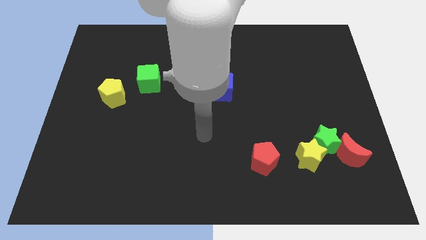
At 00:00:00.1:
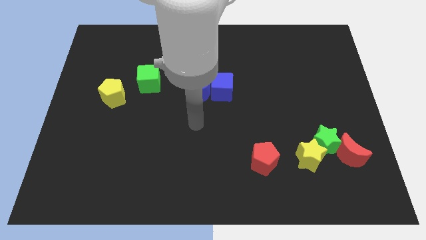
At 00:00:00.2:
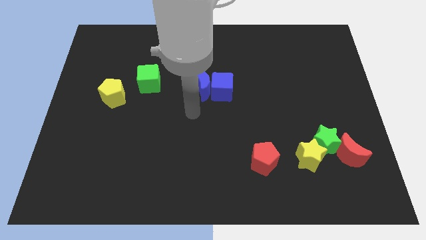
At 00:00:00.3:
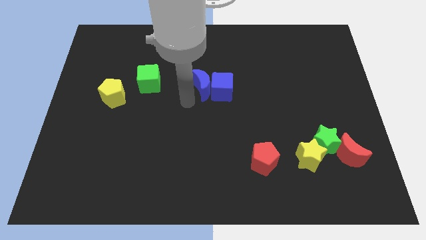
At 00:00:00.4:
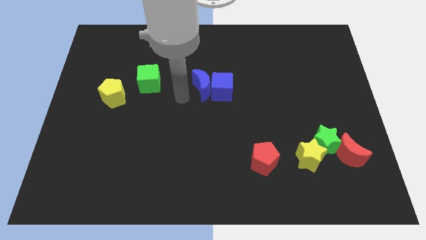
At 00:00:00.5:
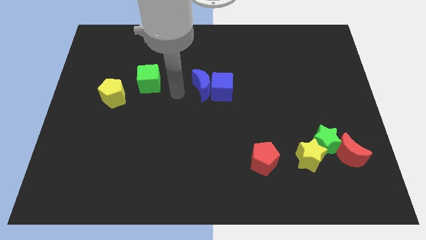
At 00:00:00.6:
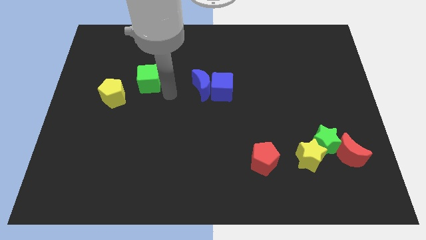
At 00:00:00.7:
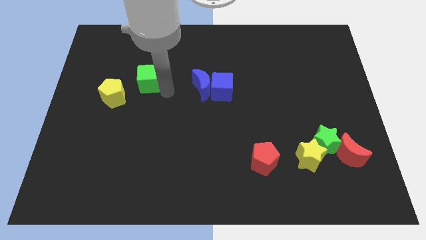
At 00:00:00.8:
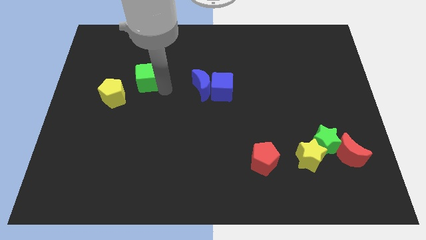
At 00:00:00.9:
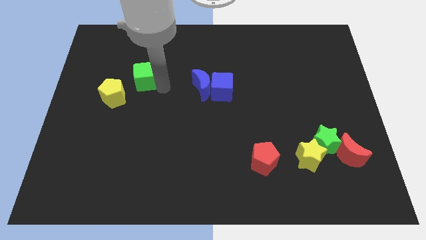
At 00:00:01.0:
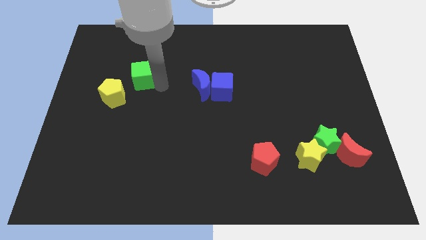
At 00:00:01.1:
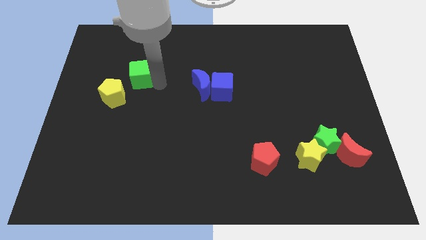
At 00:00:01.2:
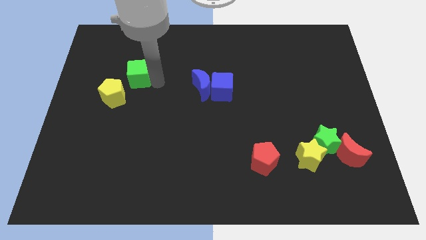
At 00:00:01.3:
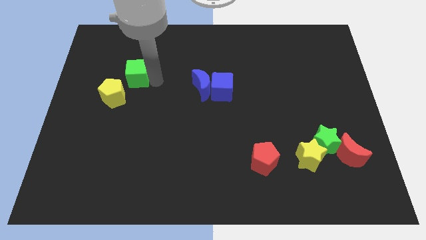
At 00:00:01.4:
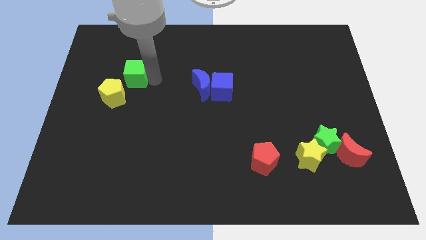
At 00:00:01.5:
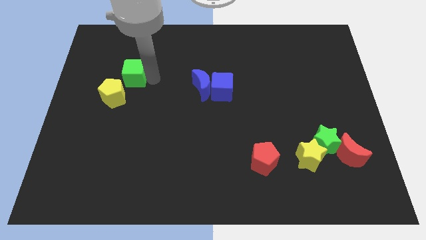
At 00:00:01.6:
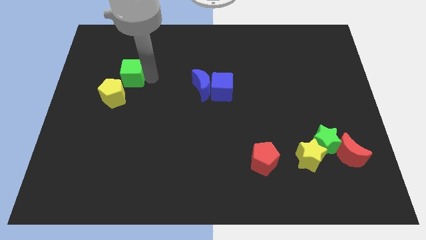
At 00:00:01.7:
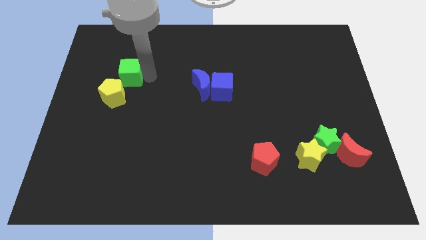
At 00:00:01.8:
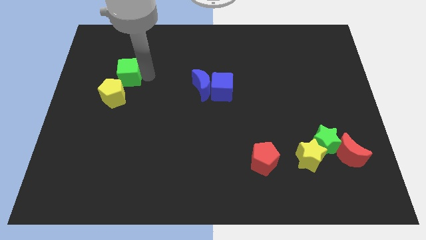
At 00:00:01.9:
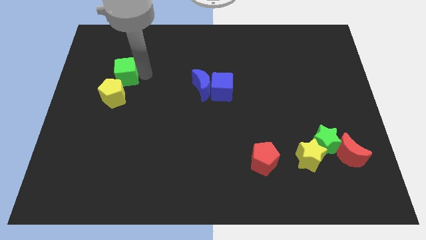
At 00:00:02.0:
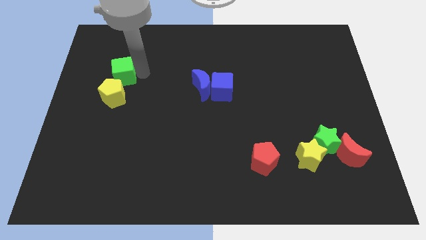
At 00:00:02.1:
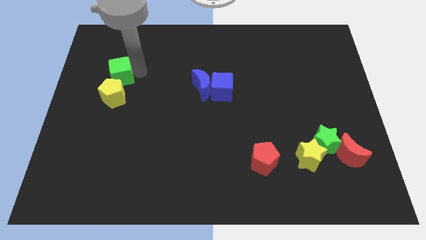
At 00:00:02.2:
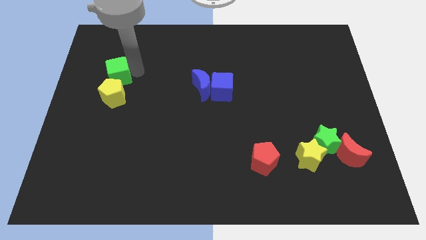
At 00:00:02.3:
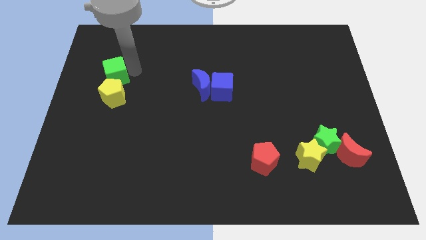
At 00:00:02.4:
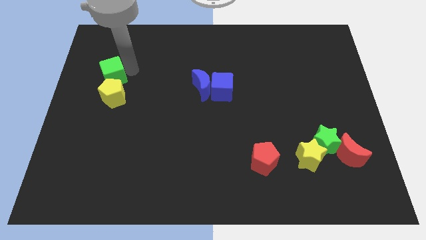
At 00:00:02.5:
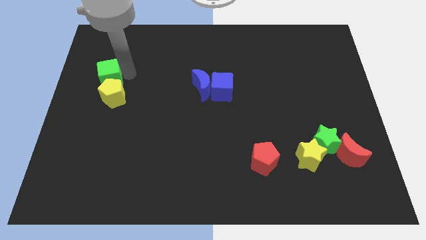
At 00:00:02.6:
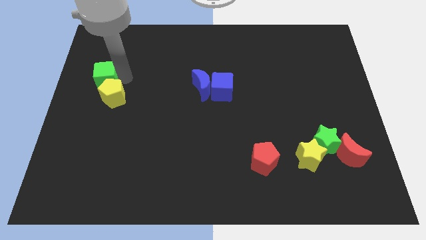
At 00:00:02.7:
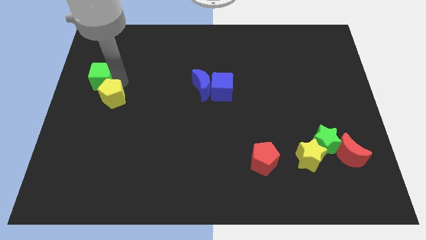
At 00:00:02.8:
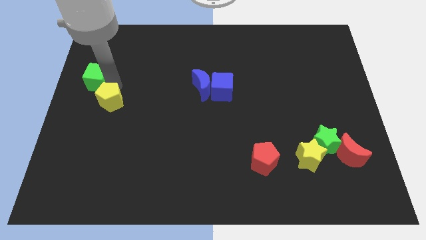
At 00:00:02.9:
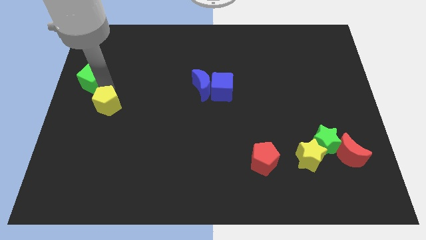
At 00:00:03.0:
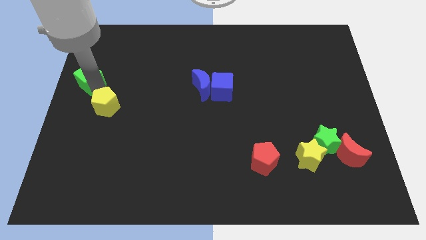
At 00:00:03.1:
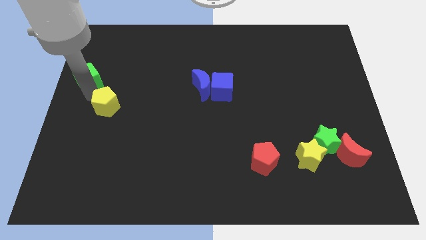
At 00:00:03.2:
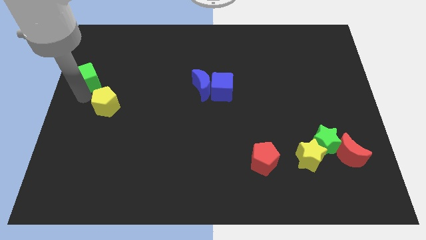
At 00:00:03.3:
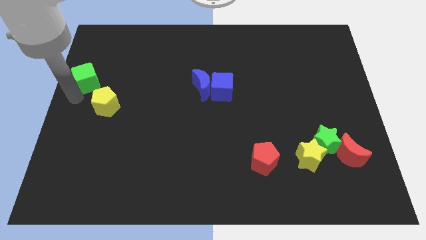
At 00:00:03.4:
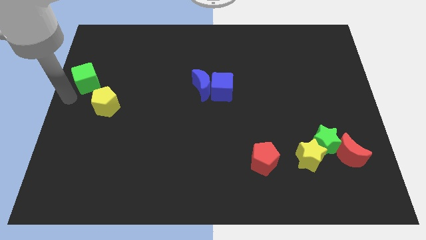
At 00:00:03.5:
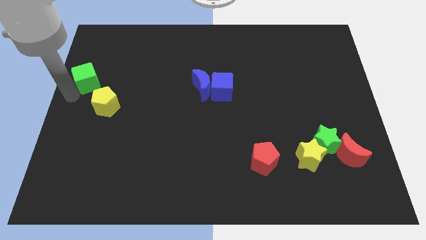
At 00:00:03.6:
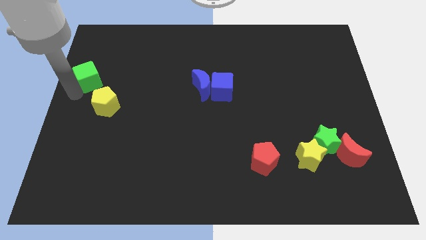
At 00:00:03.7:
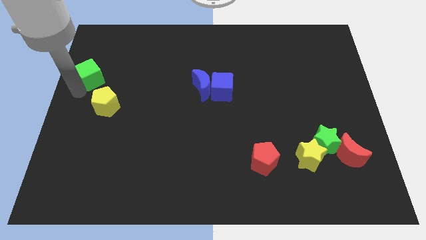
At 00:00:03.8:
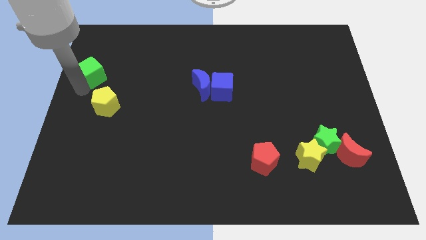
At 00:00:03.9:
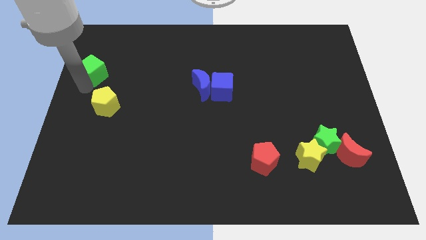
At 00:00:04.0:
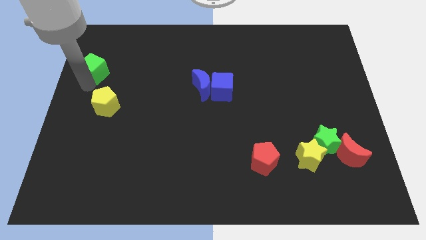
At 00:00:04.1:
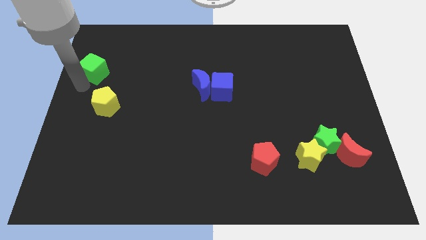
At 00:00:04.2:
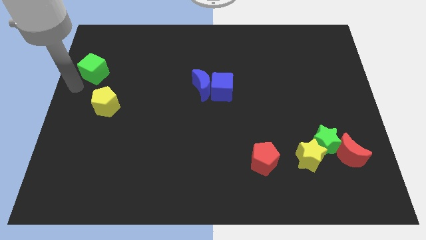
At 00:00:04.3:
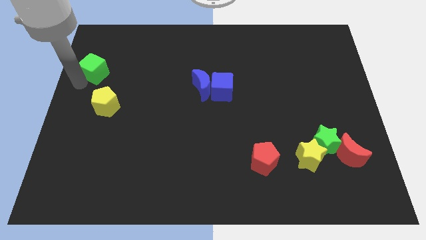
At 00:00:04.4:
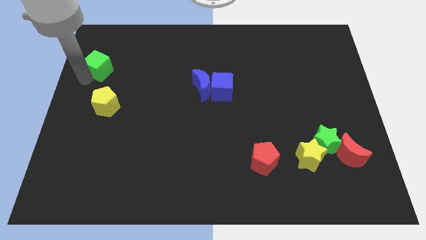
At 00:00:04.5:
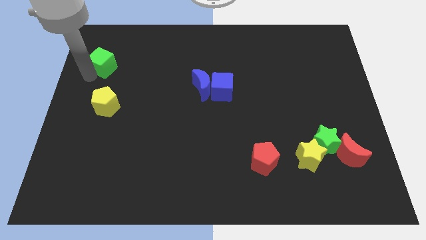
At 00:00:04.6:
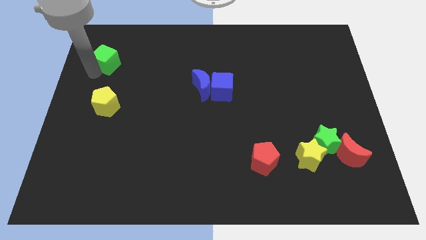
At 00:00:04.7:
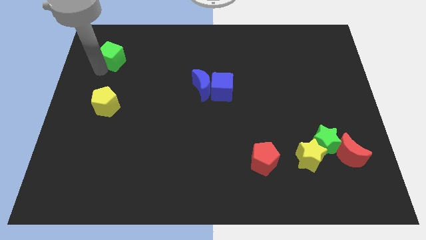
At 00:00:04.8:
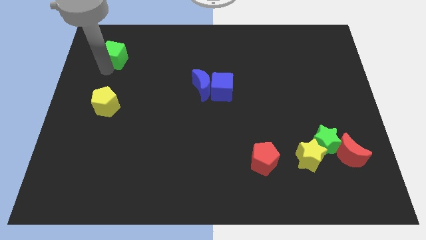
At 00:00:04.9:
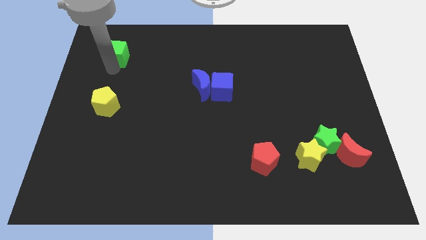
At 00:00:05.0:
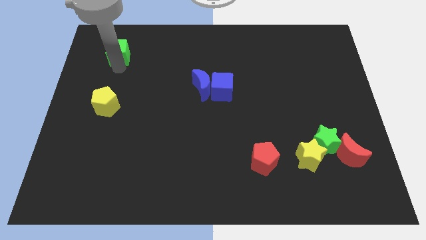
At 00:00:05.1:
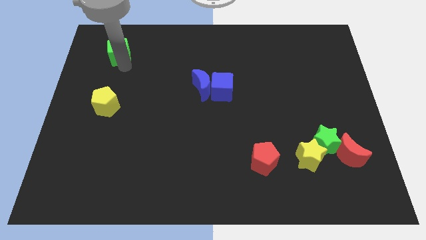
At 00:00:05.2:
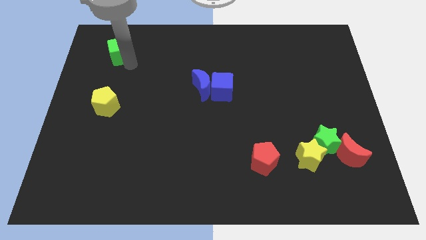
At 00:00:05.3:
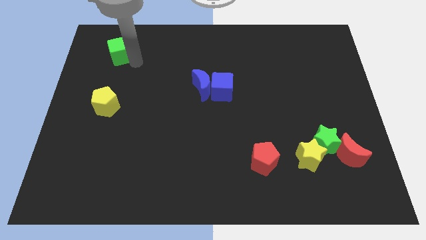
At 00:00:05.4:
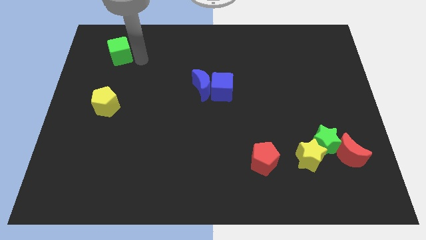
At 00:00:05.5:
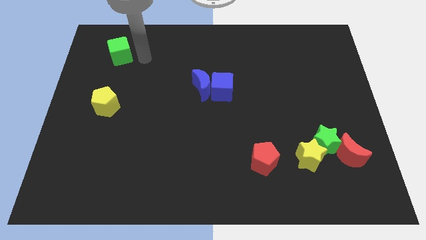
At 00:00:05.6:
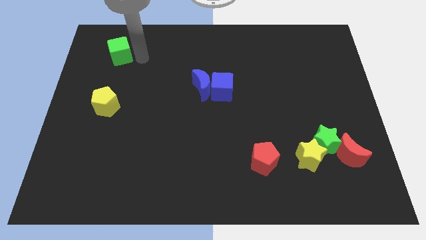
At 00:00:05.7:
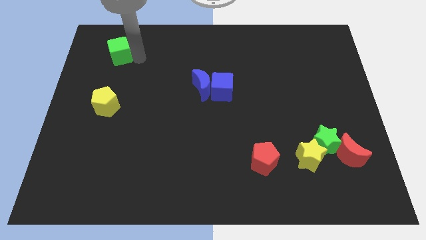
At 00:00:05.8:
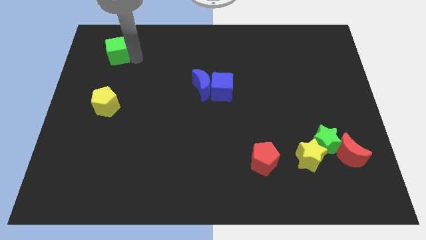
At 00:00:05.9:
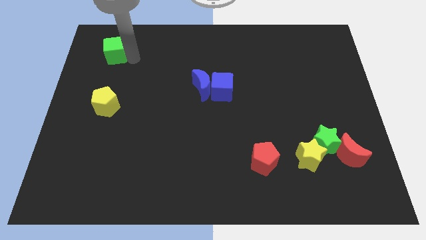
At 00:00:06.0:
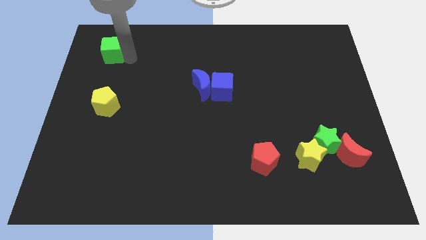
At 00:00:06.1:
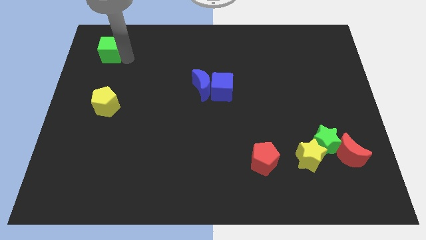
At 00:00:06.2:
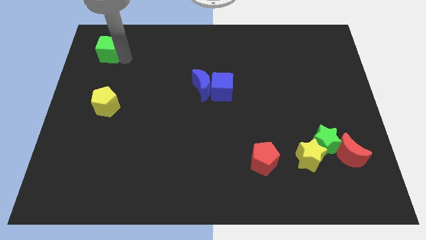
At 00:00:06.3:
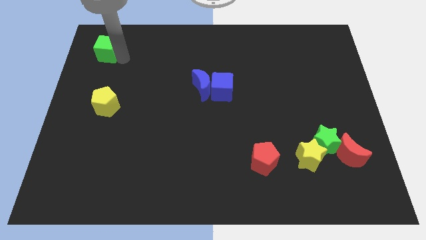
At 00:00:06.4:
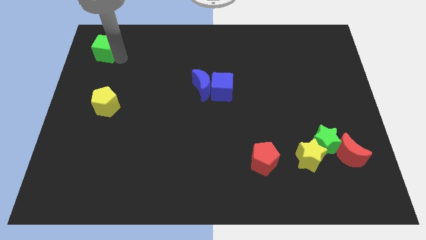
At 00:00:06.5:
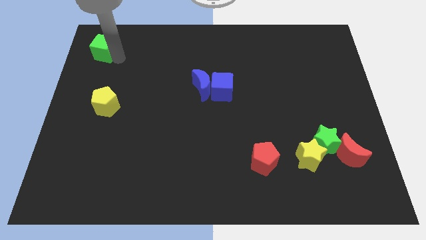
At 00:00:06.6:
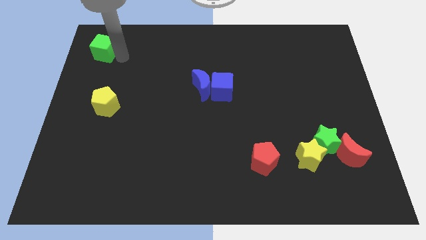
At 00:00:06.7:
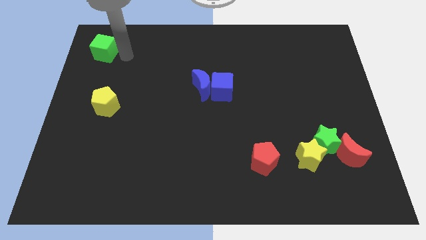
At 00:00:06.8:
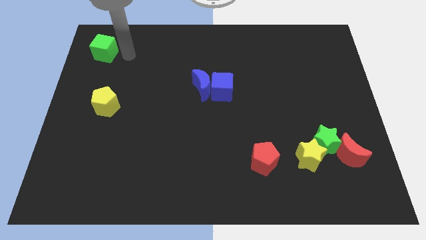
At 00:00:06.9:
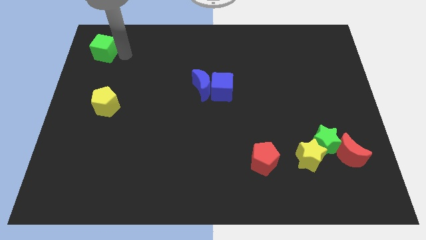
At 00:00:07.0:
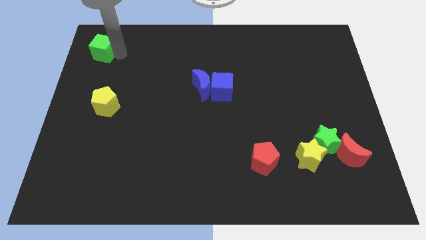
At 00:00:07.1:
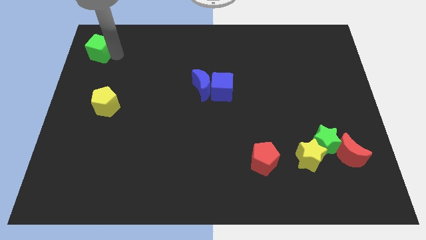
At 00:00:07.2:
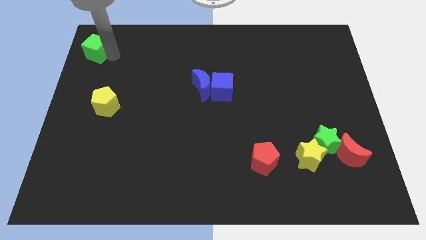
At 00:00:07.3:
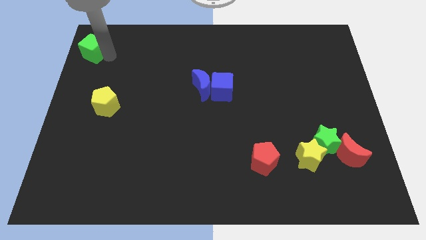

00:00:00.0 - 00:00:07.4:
move the green cube to the top left of the board
